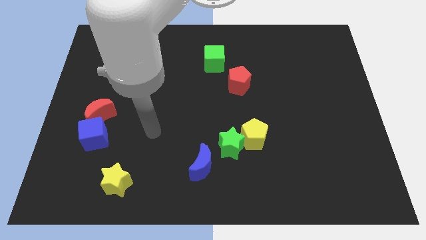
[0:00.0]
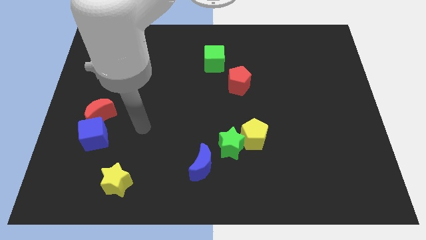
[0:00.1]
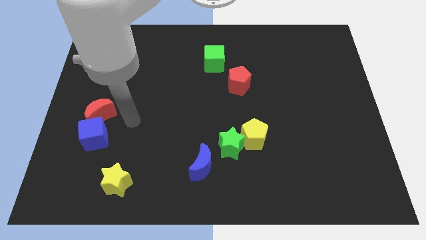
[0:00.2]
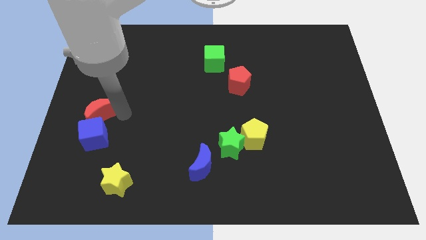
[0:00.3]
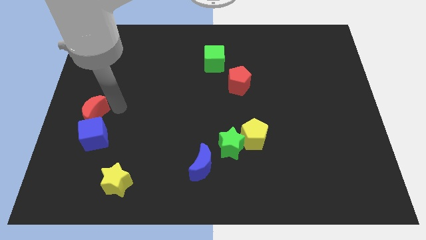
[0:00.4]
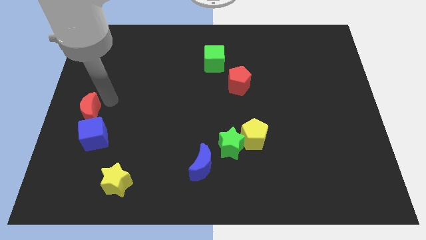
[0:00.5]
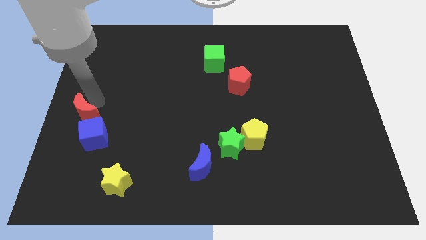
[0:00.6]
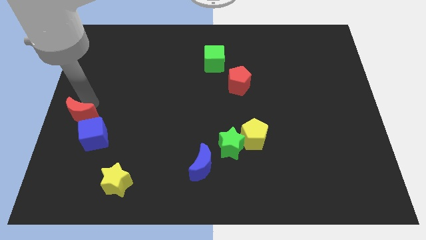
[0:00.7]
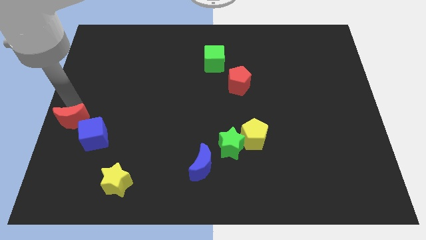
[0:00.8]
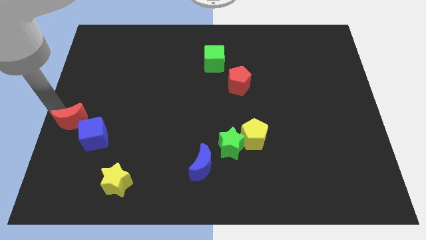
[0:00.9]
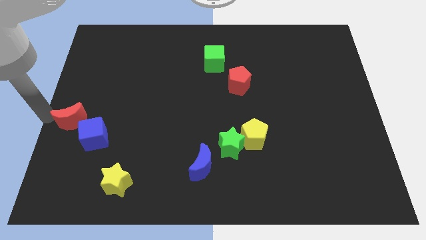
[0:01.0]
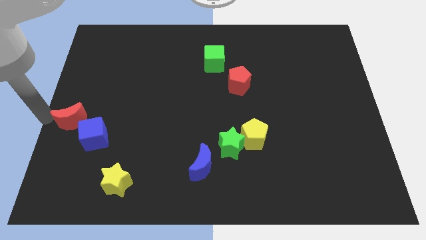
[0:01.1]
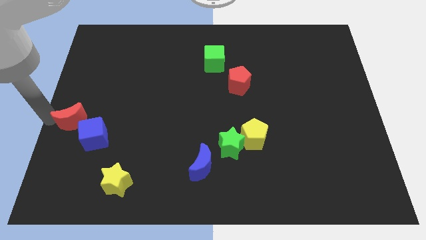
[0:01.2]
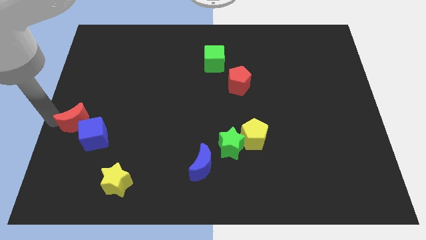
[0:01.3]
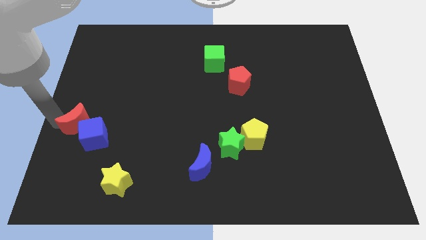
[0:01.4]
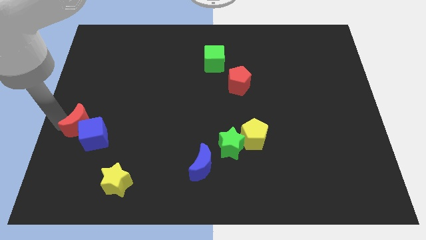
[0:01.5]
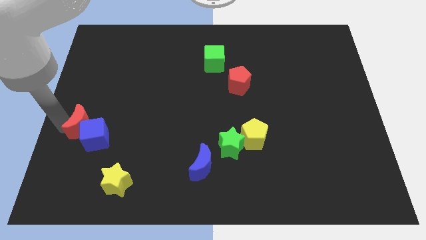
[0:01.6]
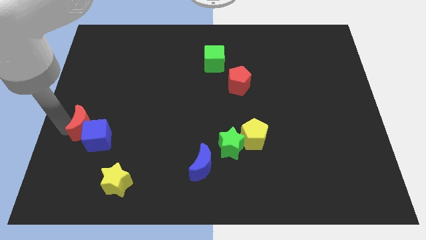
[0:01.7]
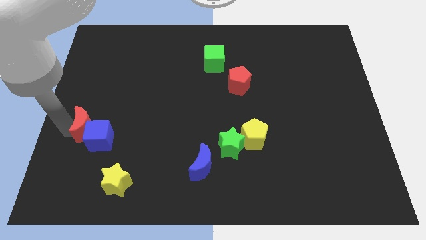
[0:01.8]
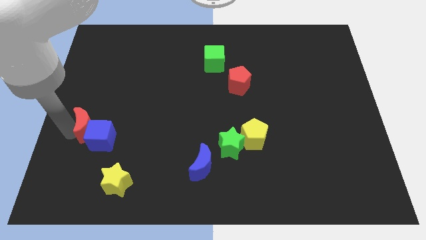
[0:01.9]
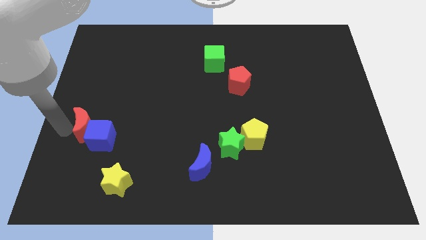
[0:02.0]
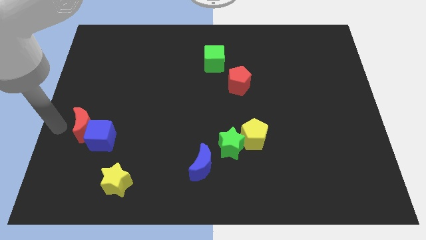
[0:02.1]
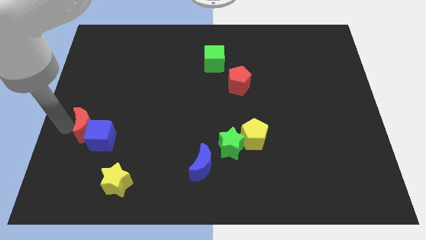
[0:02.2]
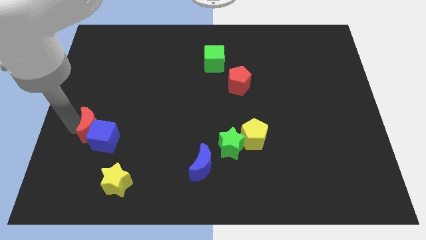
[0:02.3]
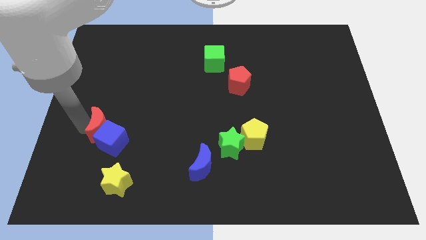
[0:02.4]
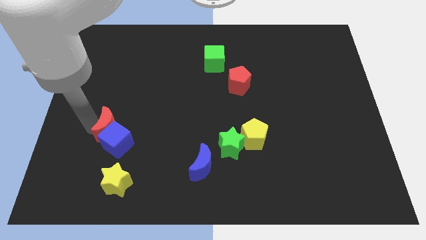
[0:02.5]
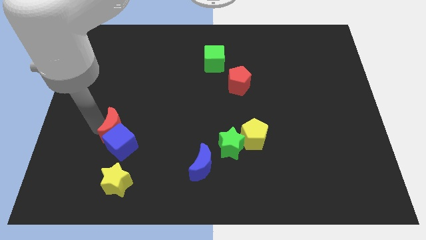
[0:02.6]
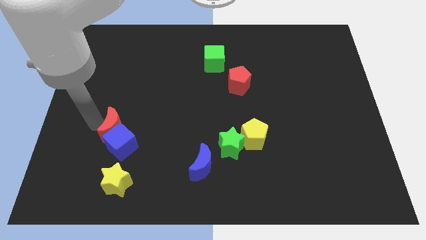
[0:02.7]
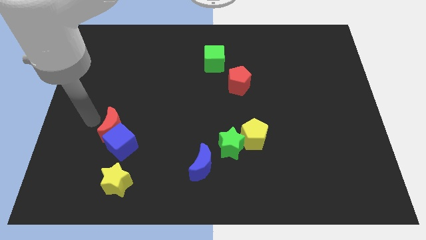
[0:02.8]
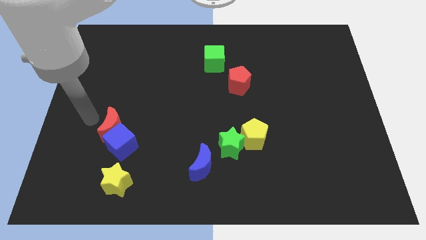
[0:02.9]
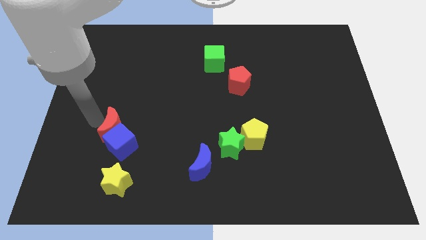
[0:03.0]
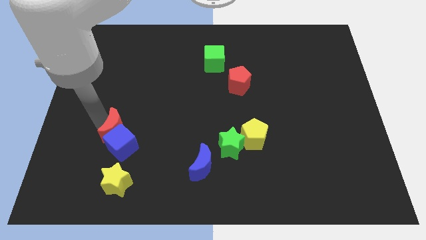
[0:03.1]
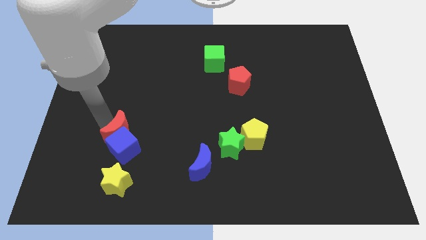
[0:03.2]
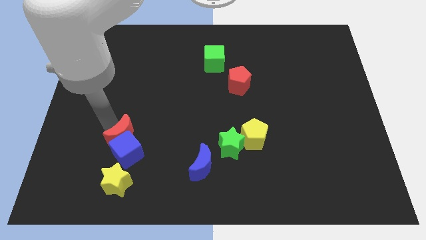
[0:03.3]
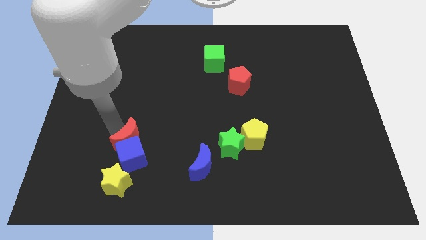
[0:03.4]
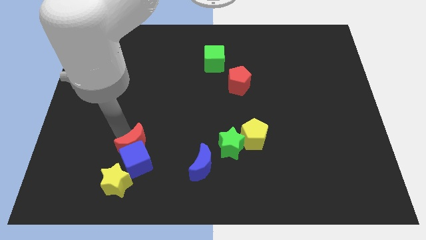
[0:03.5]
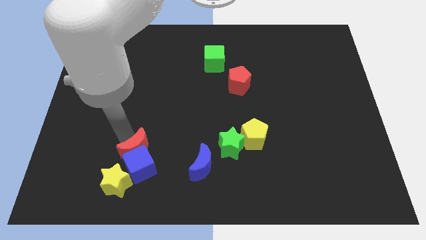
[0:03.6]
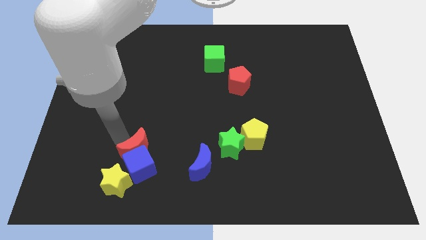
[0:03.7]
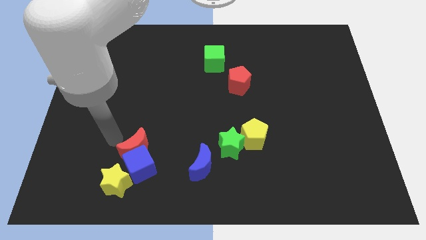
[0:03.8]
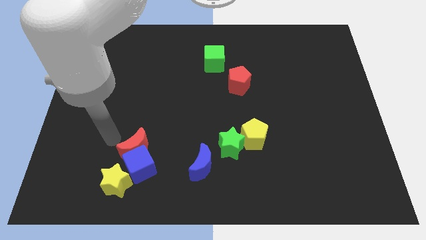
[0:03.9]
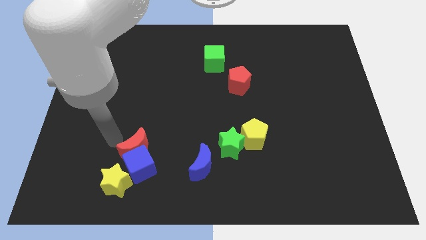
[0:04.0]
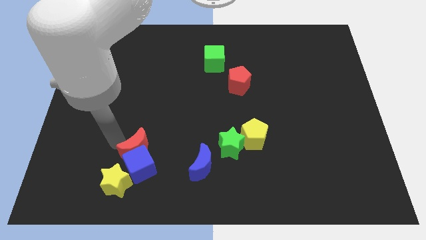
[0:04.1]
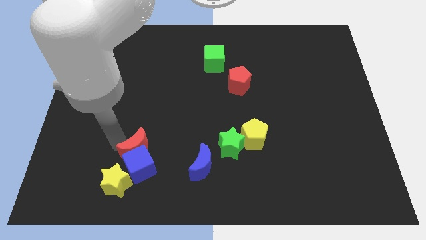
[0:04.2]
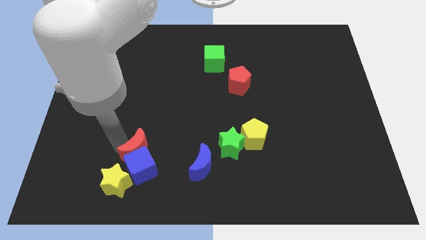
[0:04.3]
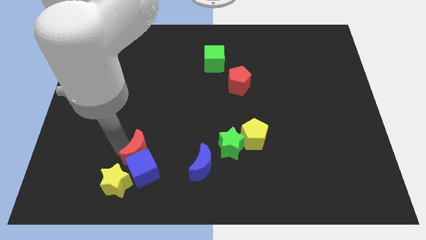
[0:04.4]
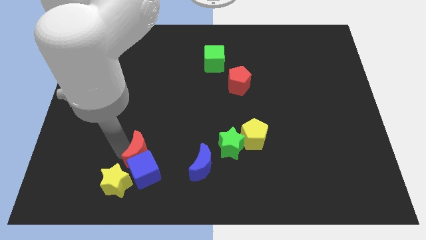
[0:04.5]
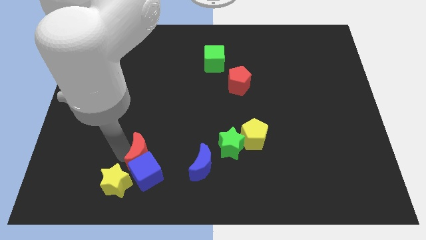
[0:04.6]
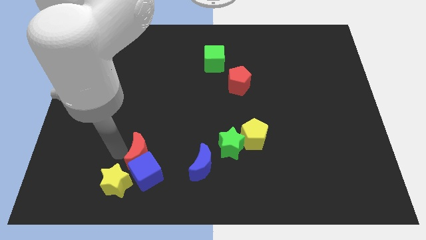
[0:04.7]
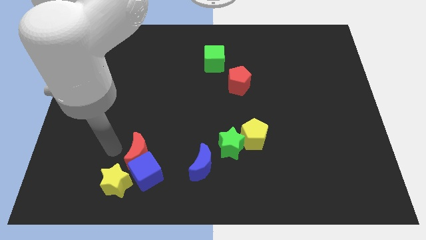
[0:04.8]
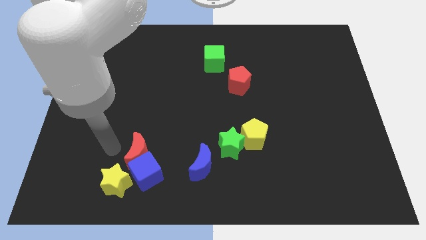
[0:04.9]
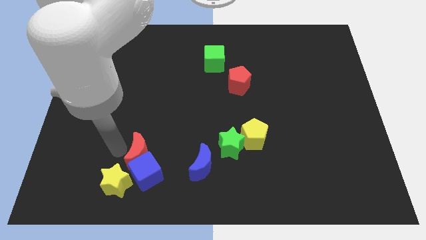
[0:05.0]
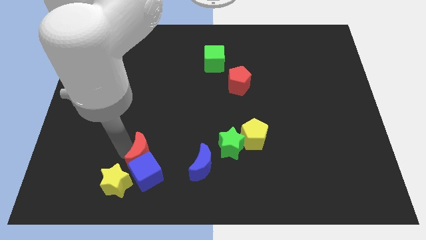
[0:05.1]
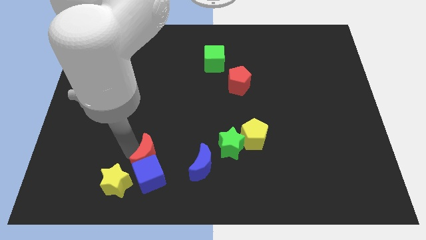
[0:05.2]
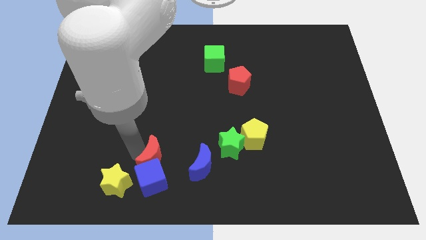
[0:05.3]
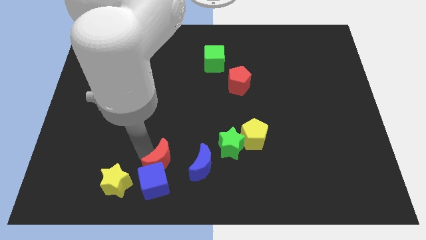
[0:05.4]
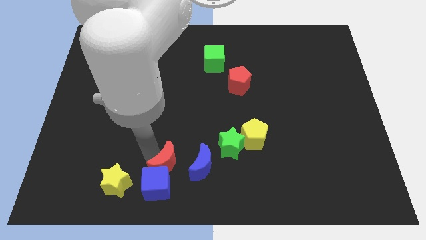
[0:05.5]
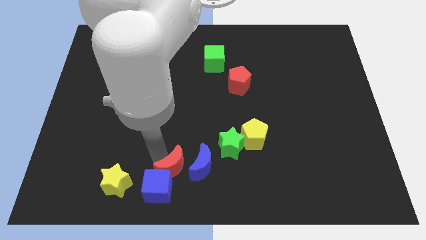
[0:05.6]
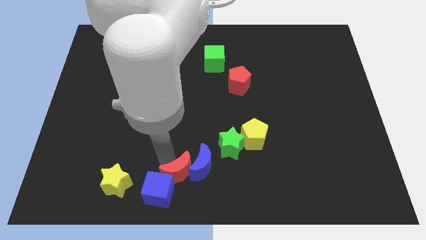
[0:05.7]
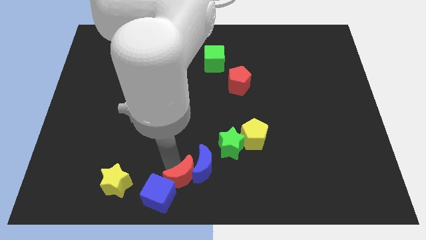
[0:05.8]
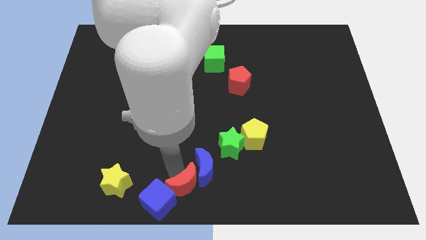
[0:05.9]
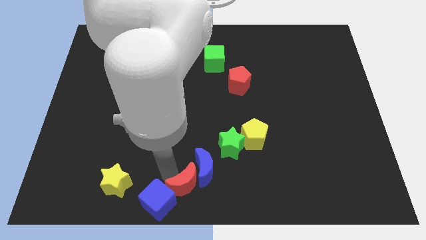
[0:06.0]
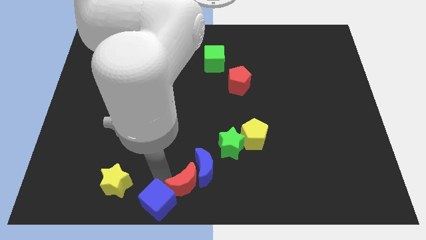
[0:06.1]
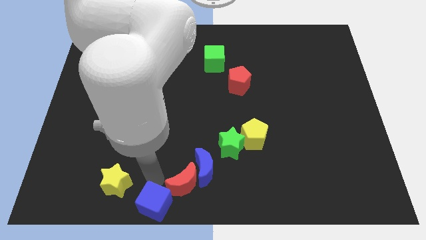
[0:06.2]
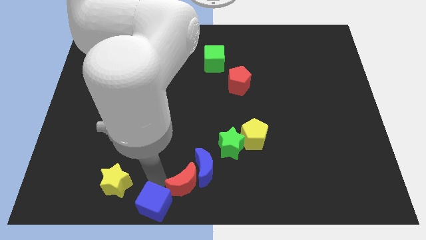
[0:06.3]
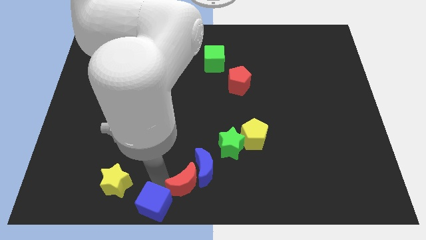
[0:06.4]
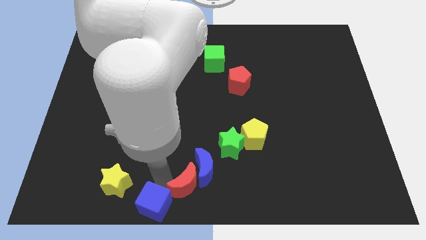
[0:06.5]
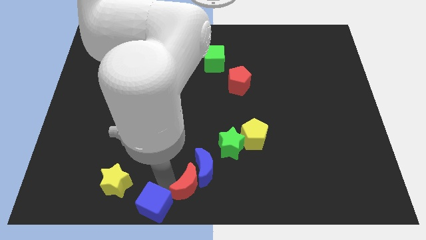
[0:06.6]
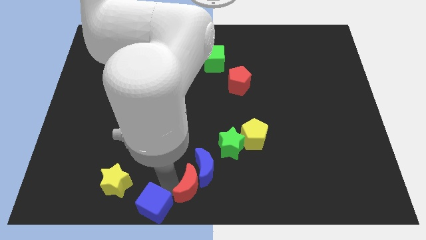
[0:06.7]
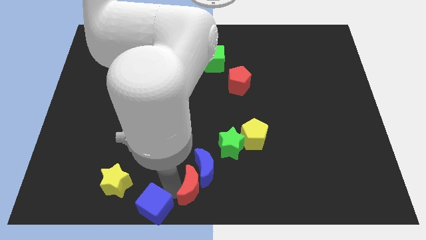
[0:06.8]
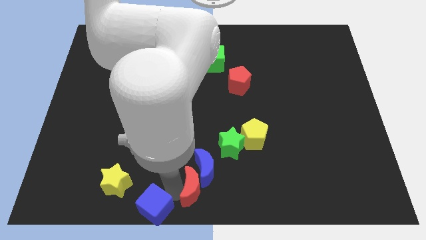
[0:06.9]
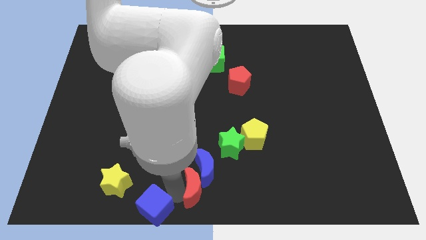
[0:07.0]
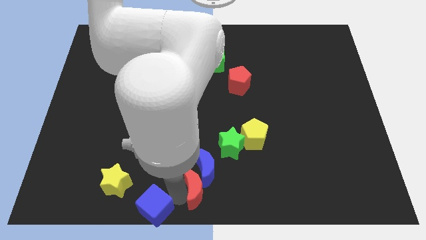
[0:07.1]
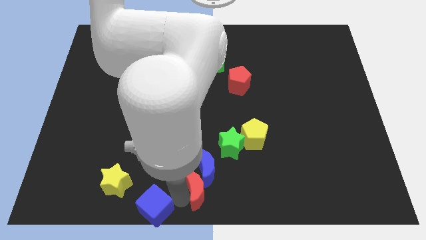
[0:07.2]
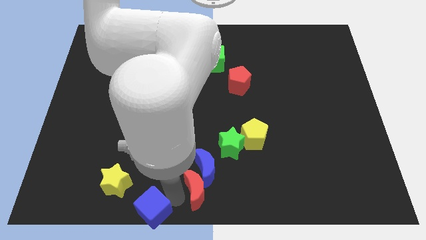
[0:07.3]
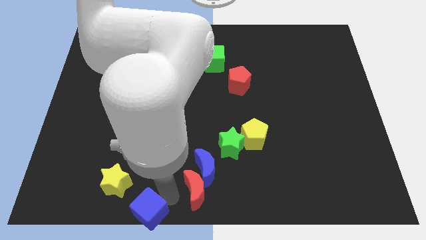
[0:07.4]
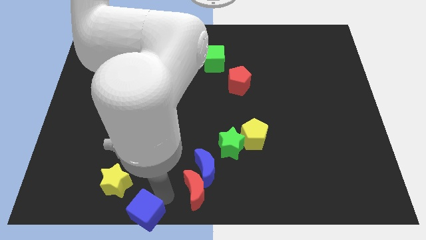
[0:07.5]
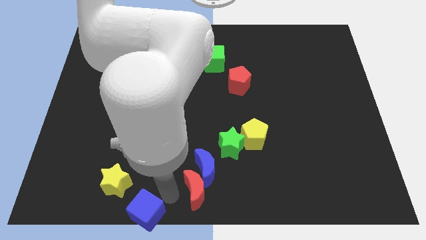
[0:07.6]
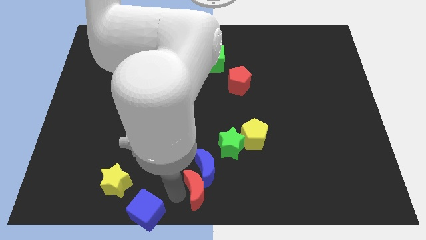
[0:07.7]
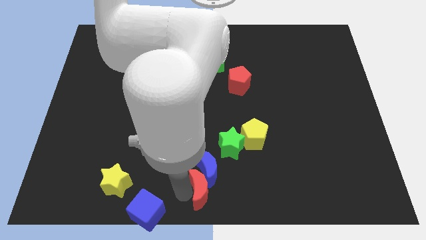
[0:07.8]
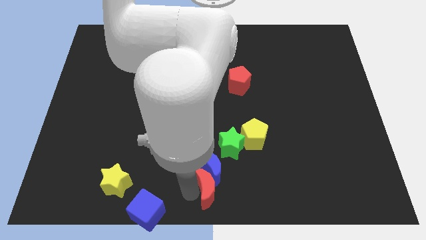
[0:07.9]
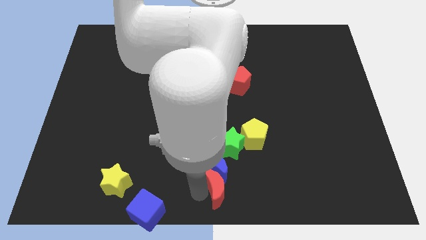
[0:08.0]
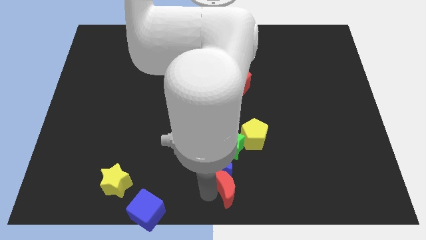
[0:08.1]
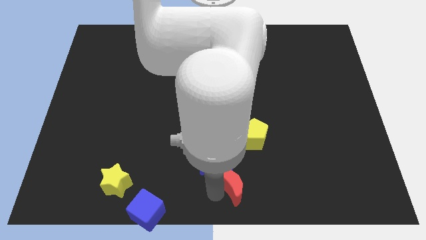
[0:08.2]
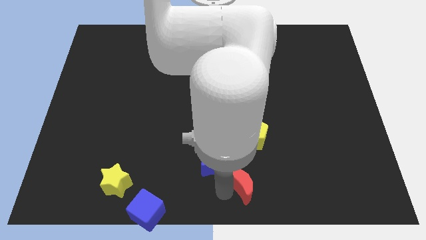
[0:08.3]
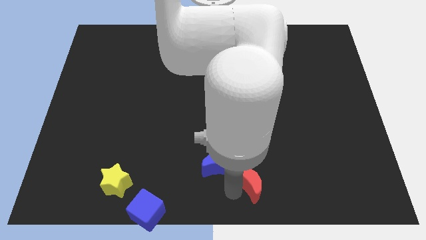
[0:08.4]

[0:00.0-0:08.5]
move the red moon to the bottom right side of the green star
